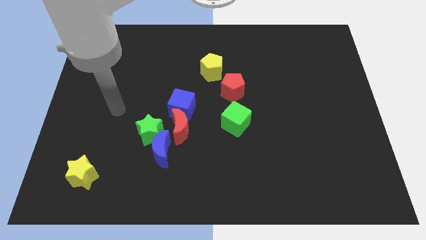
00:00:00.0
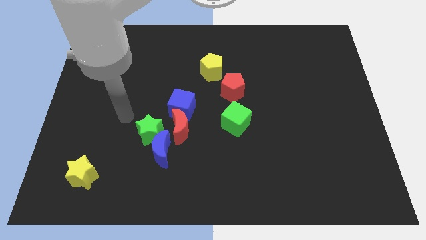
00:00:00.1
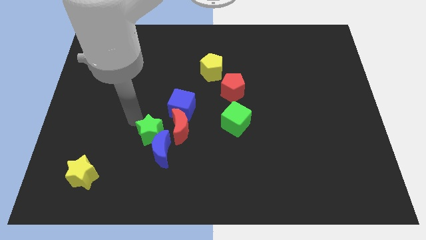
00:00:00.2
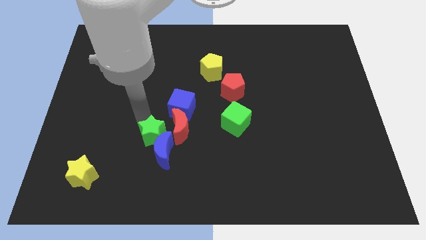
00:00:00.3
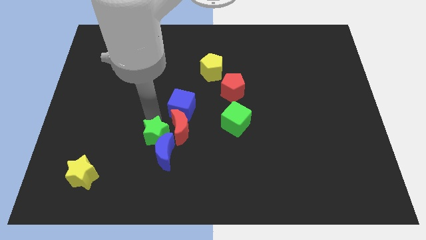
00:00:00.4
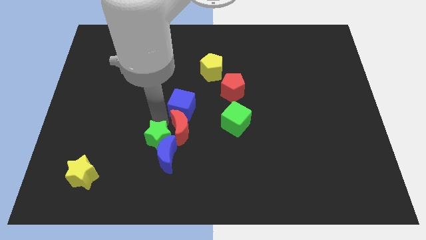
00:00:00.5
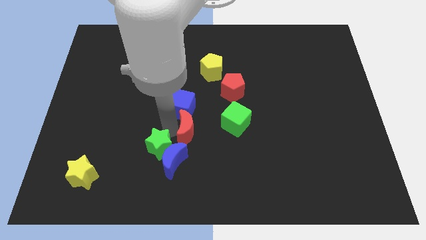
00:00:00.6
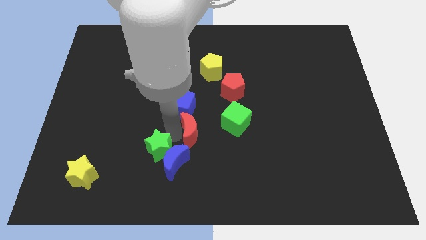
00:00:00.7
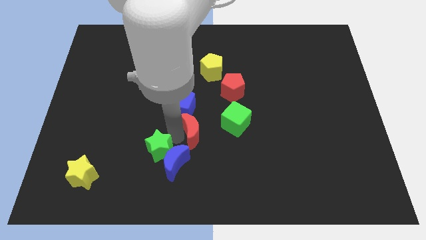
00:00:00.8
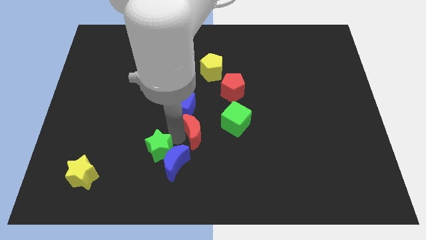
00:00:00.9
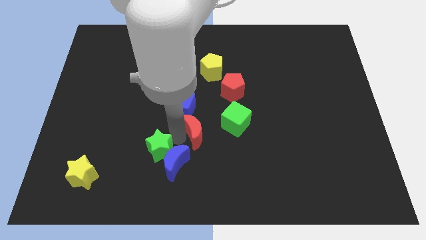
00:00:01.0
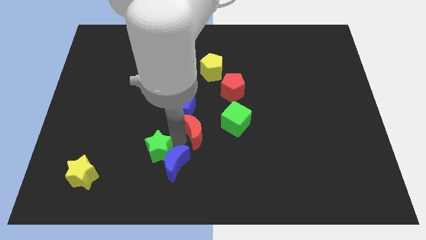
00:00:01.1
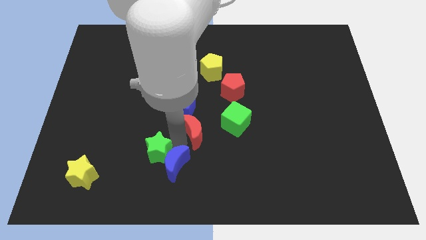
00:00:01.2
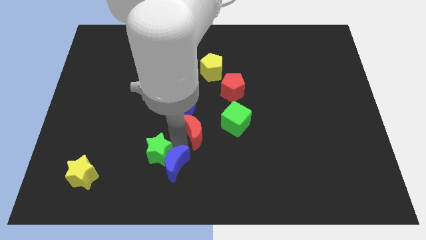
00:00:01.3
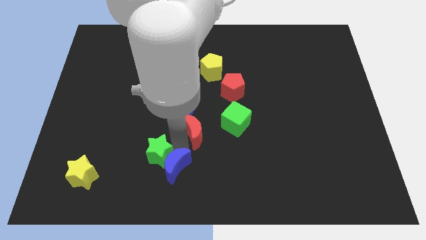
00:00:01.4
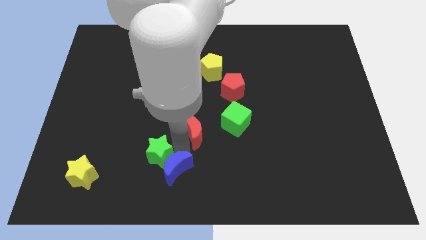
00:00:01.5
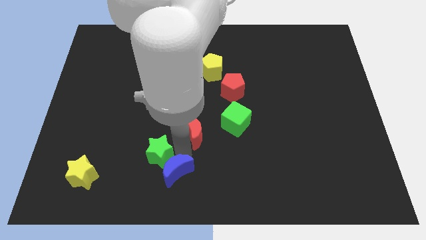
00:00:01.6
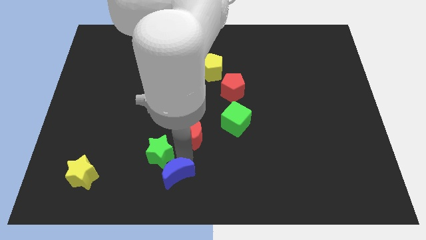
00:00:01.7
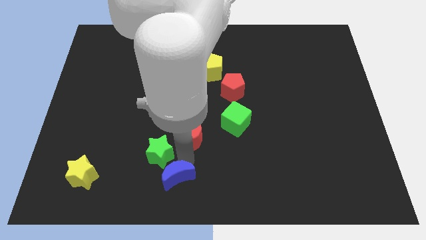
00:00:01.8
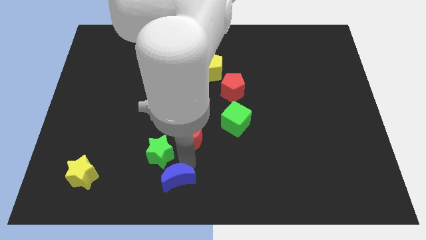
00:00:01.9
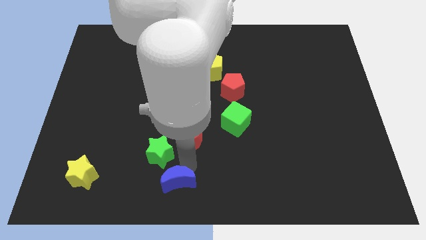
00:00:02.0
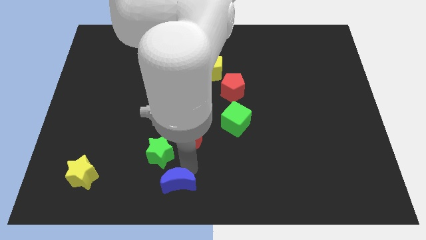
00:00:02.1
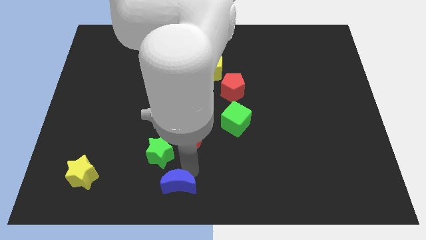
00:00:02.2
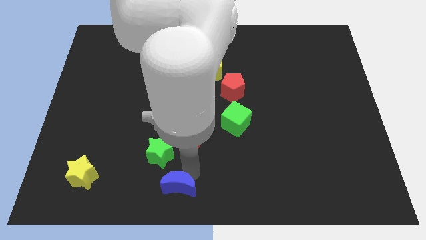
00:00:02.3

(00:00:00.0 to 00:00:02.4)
move the blue moon away from the green star and red moon

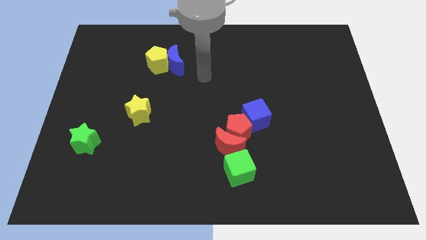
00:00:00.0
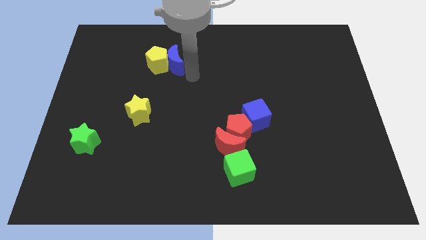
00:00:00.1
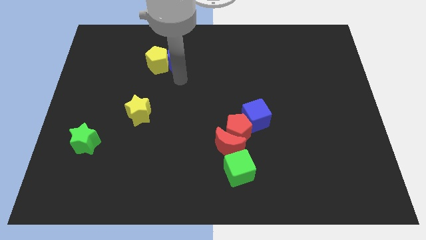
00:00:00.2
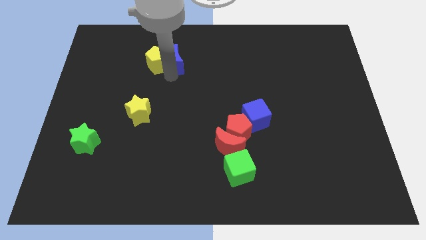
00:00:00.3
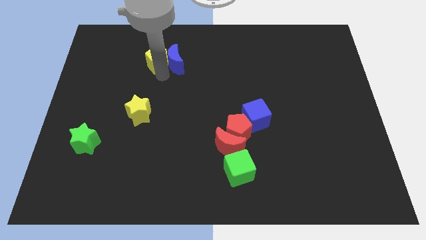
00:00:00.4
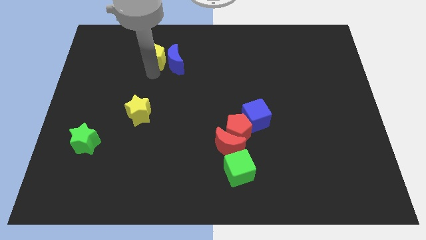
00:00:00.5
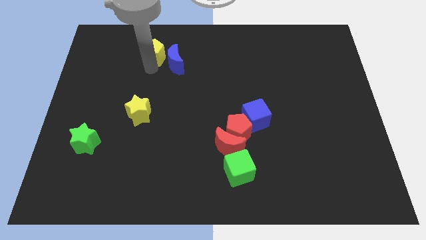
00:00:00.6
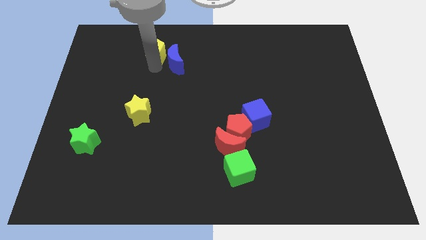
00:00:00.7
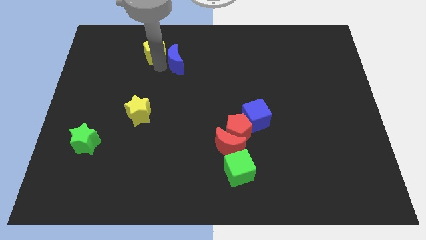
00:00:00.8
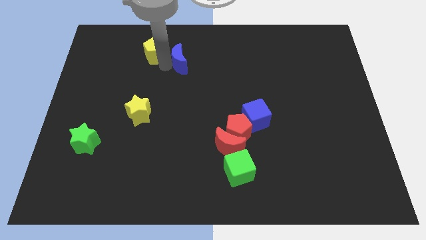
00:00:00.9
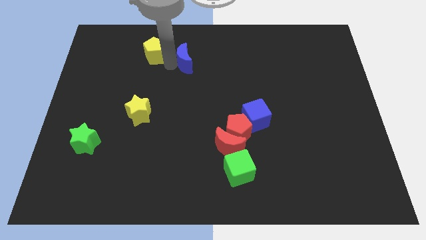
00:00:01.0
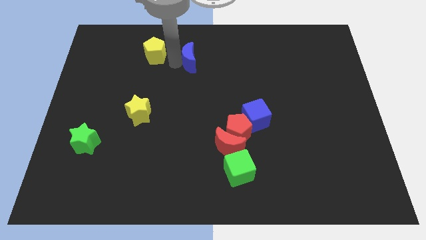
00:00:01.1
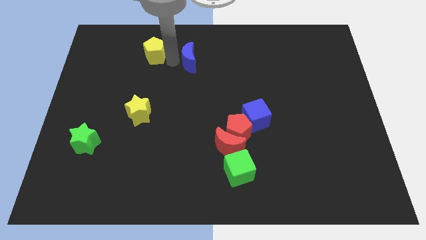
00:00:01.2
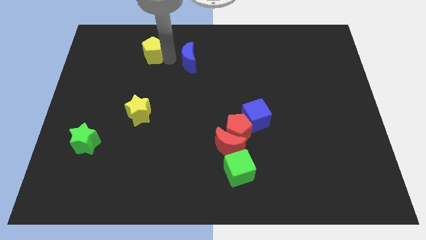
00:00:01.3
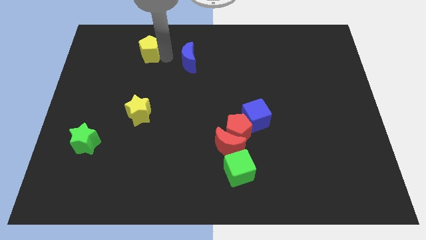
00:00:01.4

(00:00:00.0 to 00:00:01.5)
pull the blue moon apart from the yellow pentagon

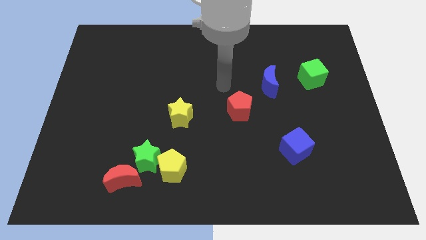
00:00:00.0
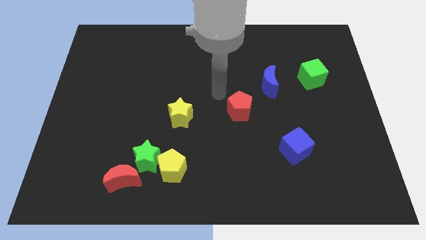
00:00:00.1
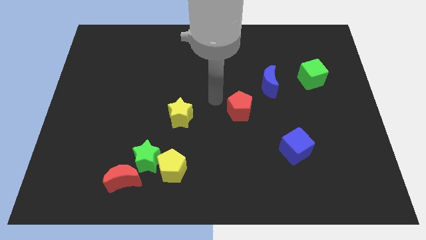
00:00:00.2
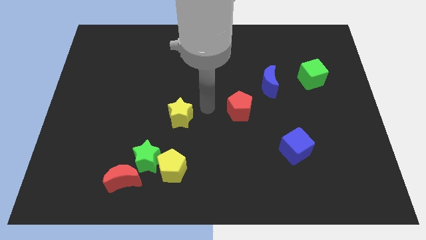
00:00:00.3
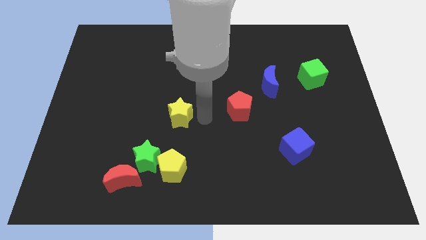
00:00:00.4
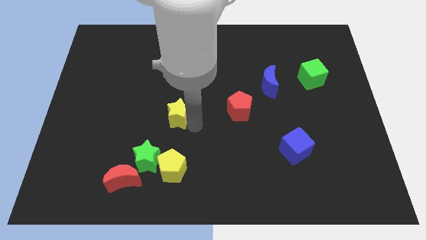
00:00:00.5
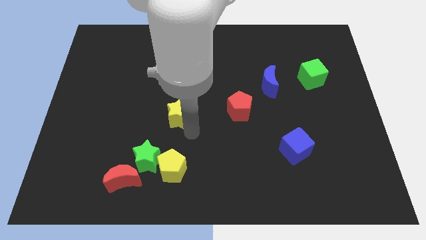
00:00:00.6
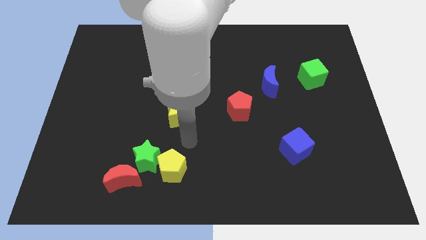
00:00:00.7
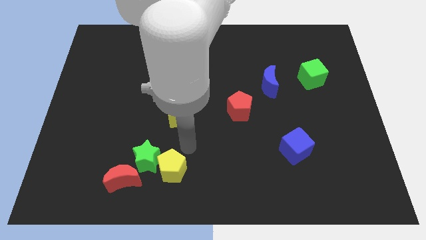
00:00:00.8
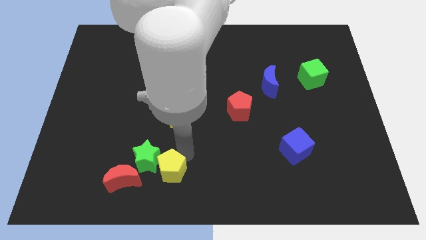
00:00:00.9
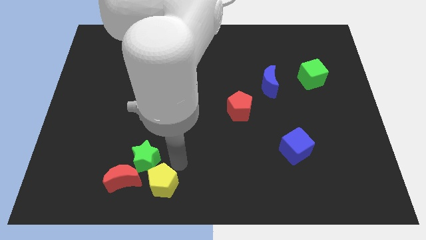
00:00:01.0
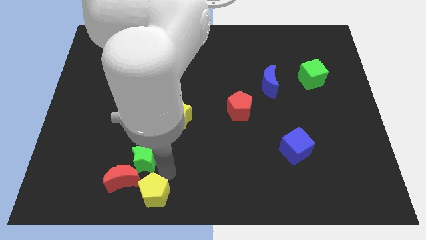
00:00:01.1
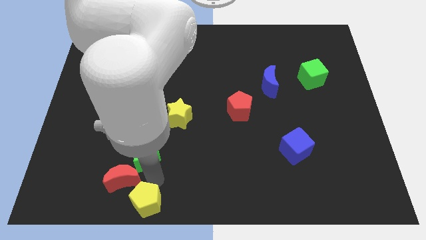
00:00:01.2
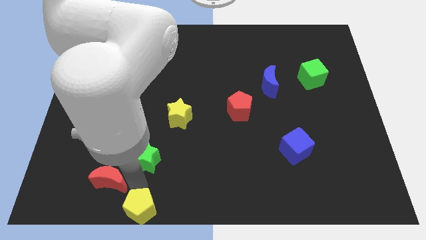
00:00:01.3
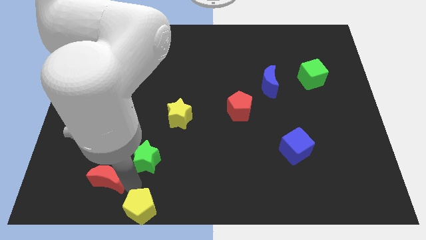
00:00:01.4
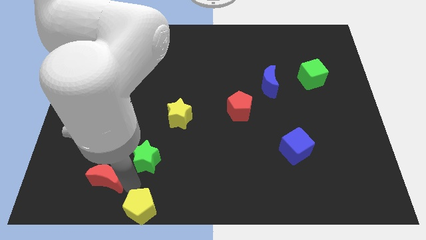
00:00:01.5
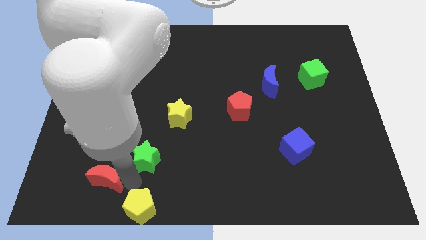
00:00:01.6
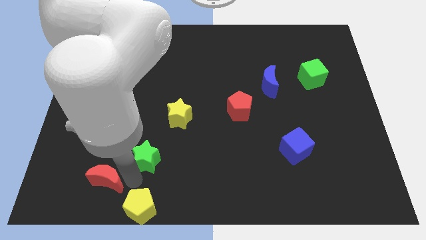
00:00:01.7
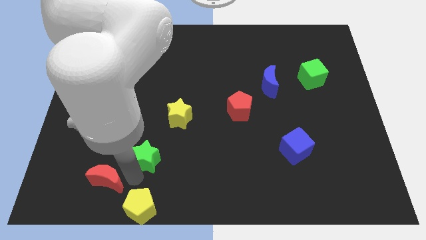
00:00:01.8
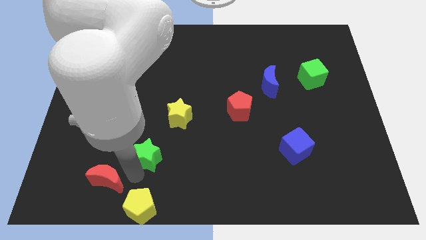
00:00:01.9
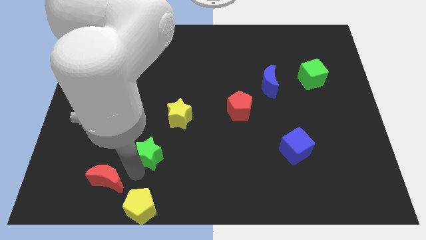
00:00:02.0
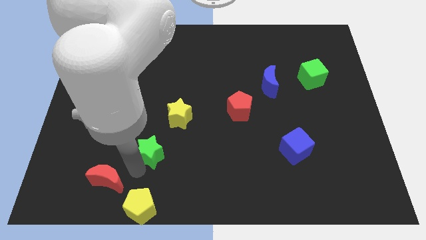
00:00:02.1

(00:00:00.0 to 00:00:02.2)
pull the green star apart from the yellow pentagon and red moon

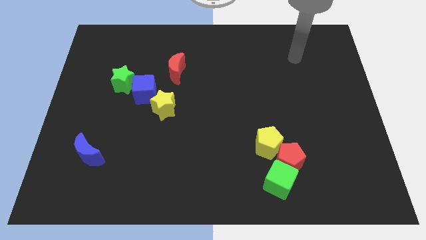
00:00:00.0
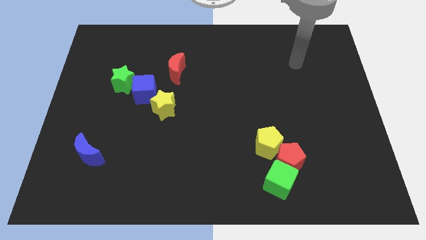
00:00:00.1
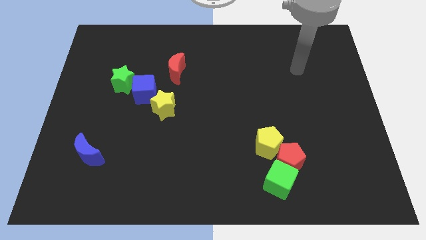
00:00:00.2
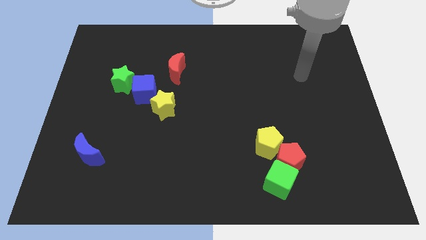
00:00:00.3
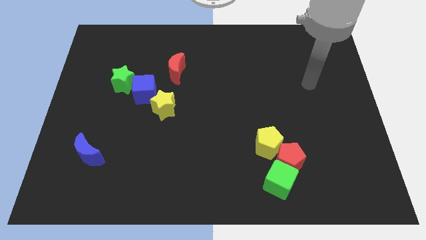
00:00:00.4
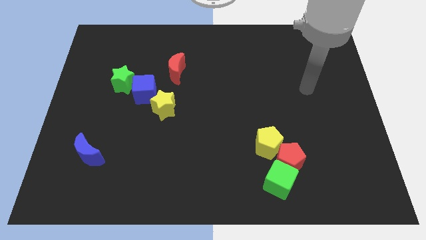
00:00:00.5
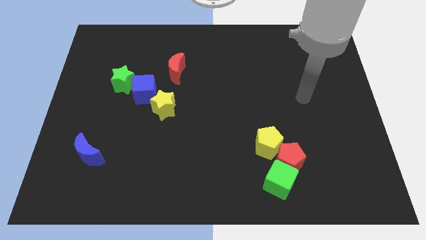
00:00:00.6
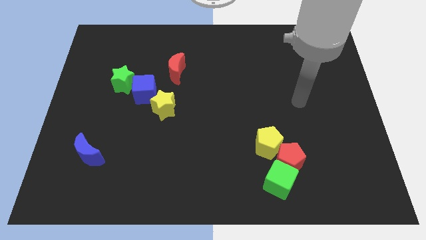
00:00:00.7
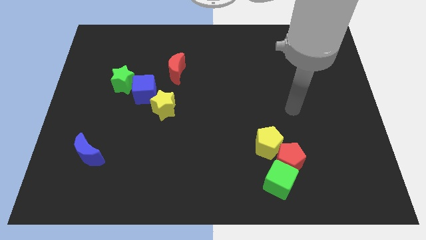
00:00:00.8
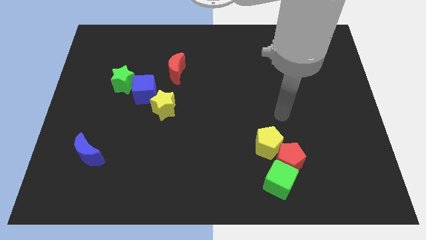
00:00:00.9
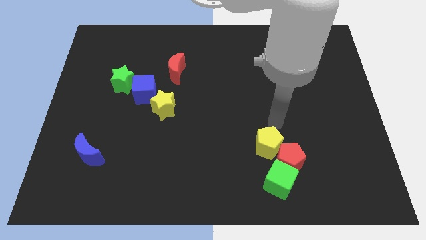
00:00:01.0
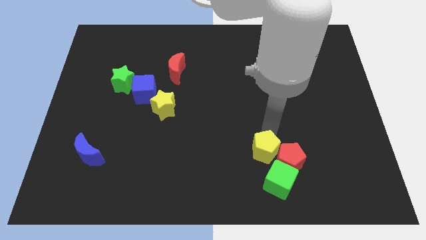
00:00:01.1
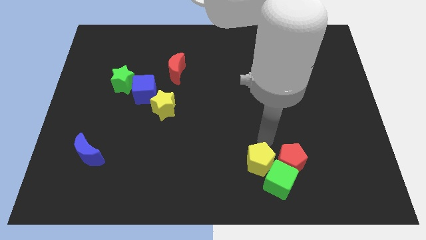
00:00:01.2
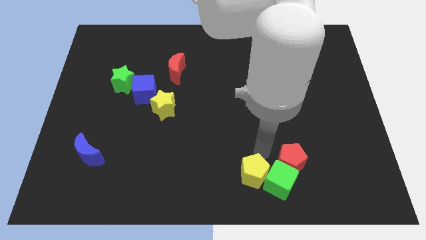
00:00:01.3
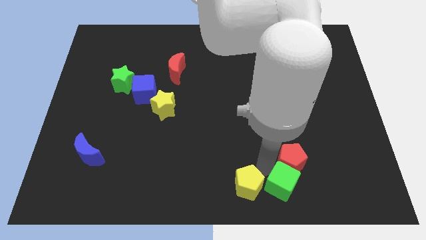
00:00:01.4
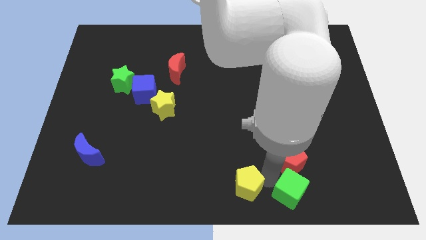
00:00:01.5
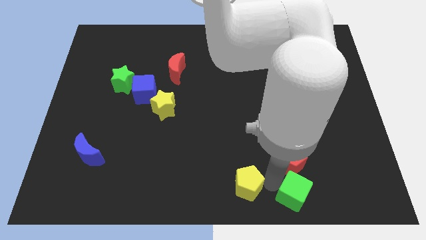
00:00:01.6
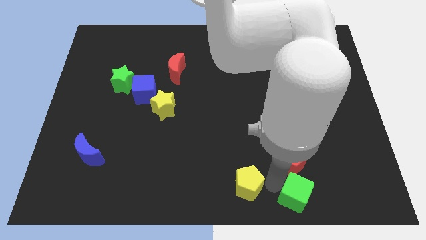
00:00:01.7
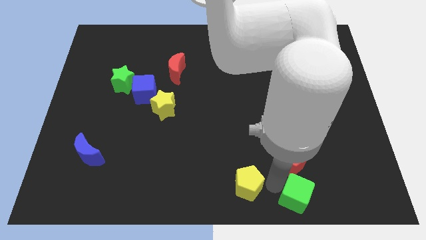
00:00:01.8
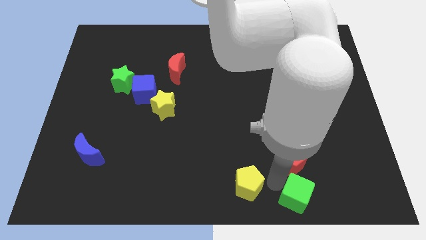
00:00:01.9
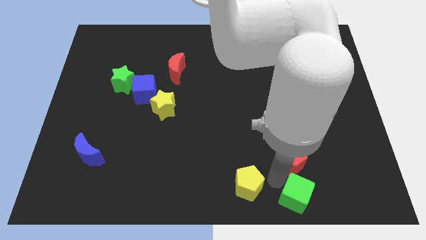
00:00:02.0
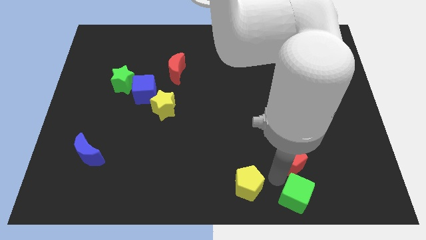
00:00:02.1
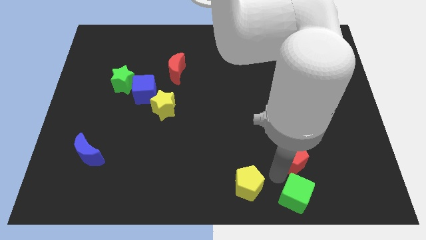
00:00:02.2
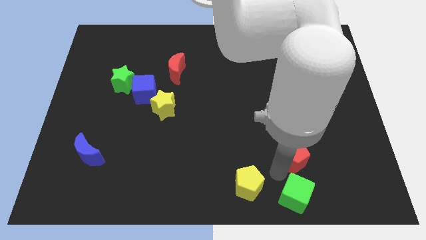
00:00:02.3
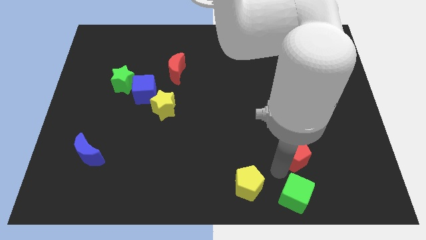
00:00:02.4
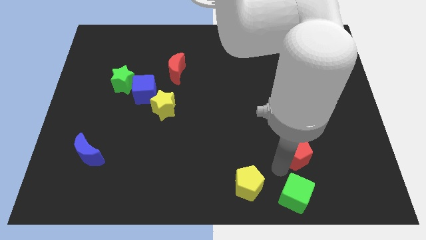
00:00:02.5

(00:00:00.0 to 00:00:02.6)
pull the red pentagon apart from the green cube and yellow pentagon

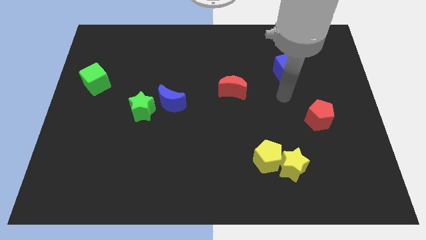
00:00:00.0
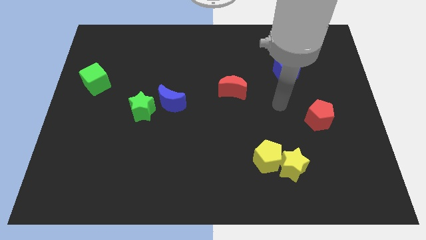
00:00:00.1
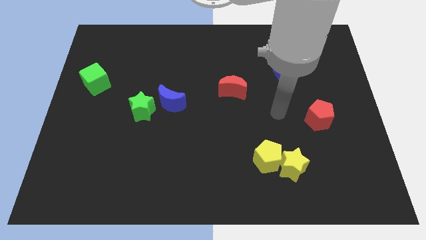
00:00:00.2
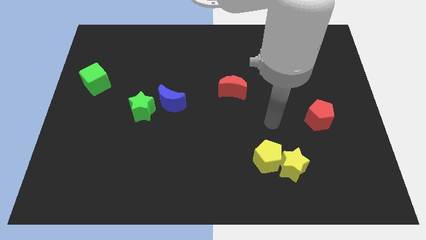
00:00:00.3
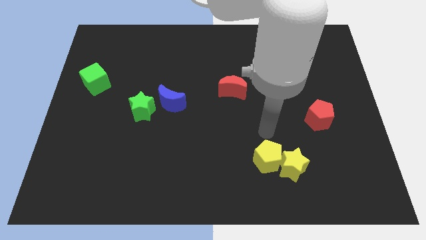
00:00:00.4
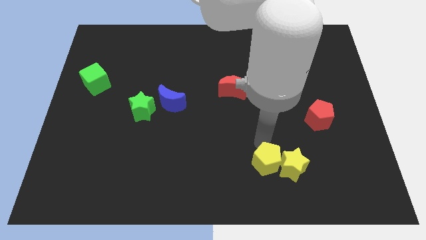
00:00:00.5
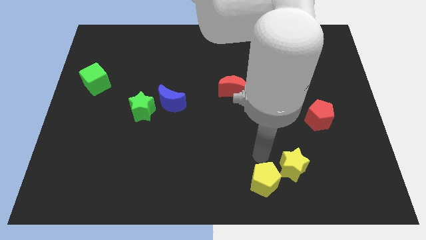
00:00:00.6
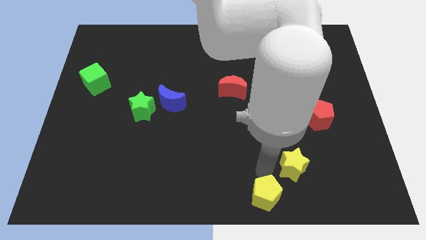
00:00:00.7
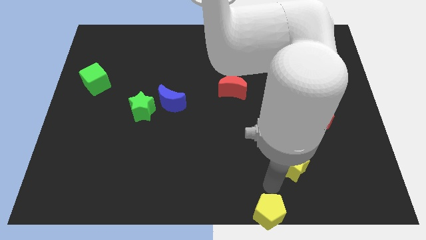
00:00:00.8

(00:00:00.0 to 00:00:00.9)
move the yellow star away from the yellow pentagon
